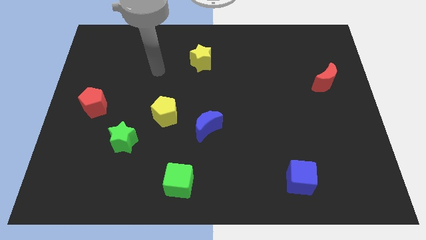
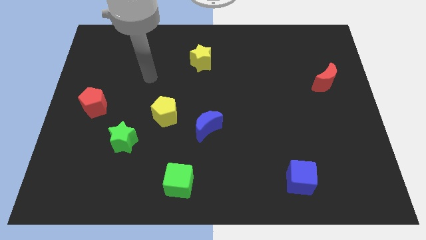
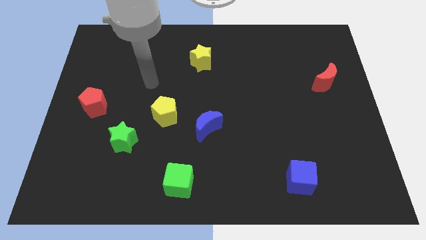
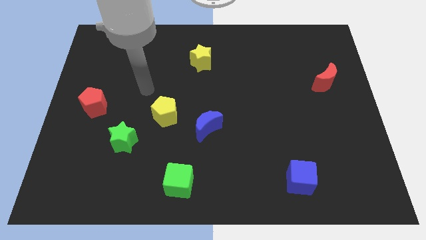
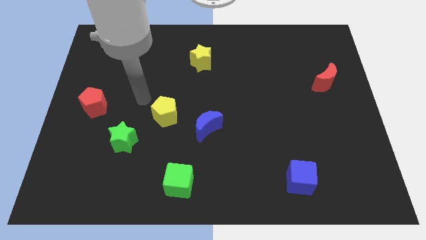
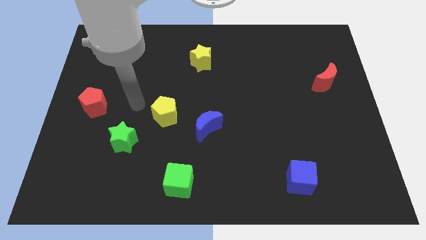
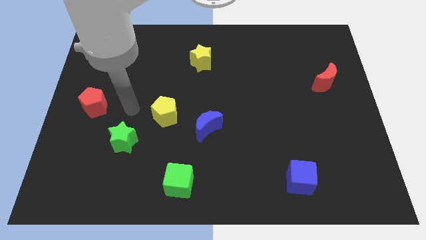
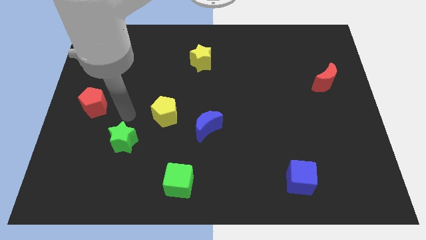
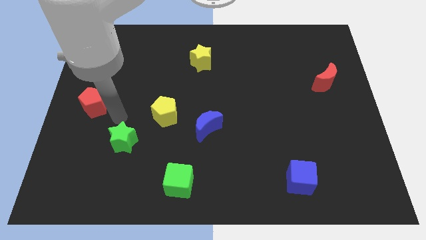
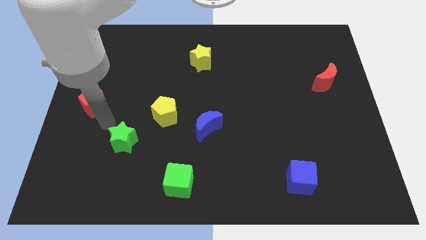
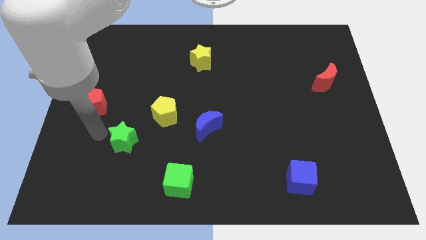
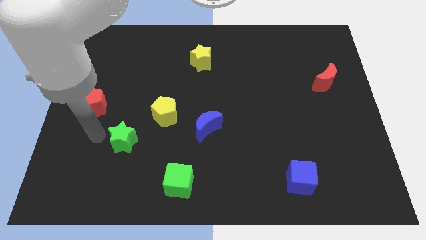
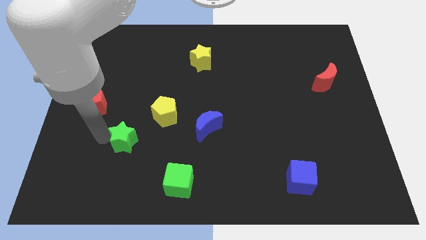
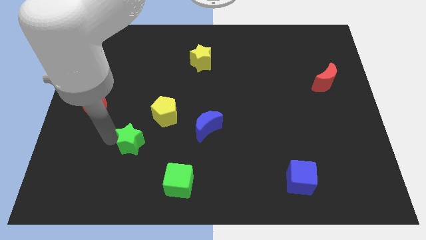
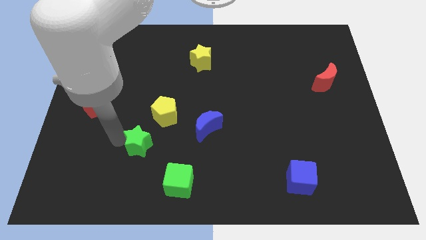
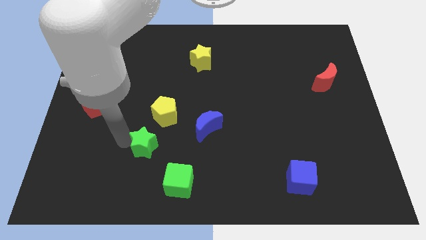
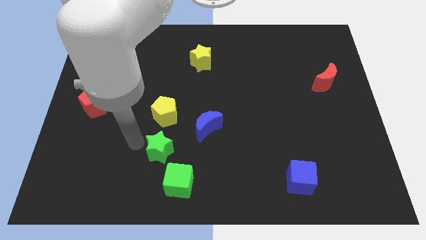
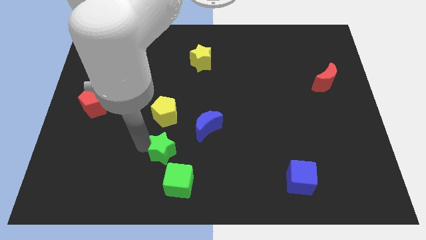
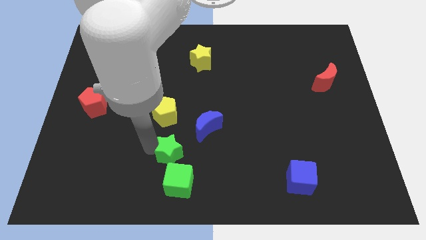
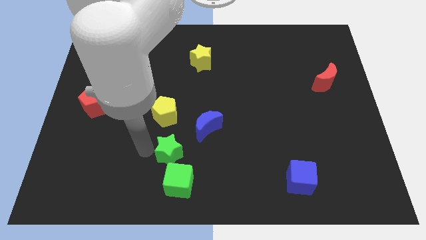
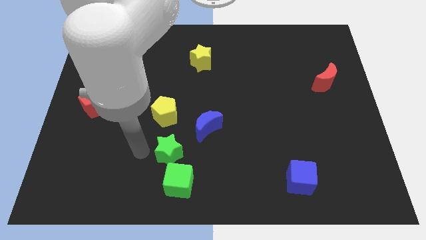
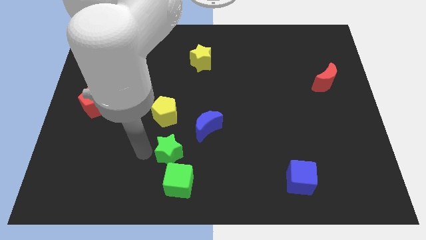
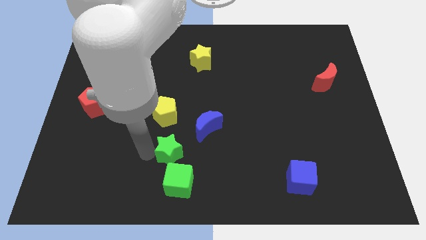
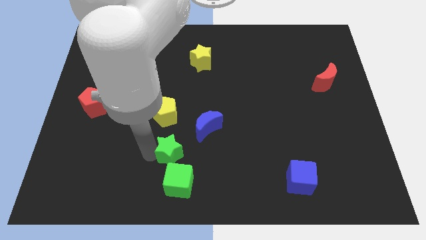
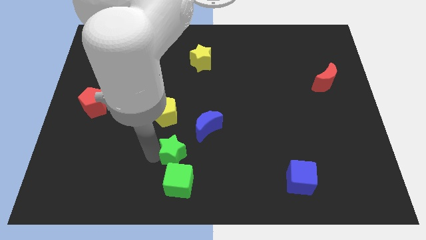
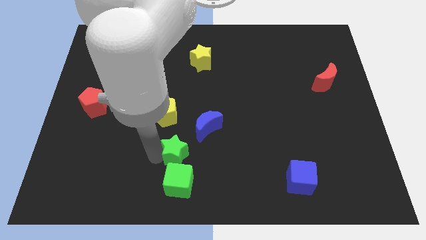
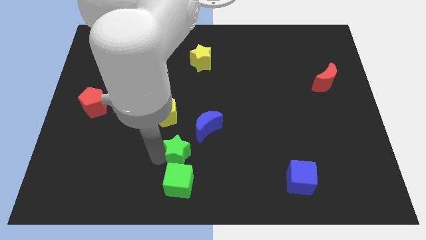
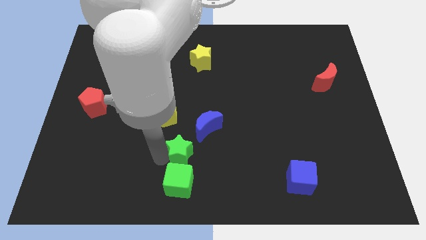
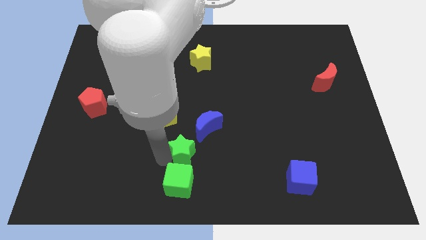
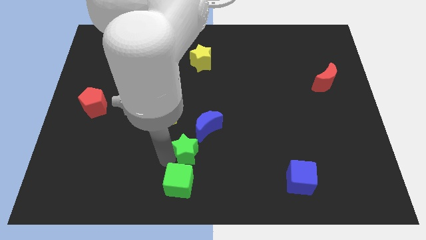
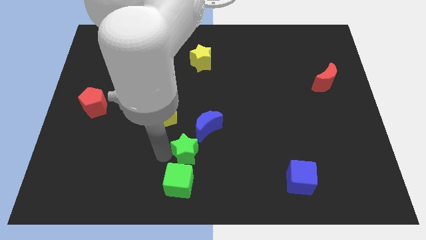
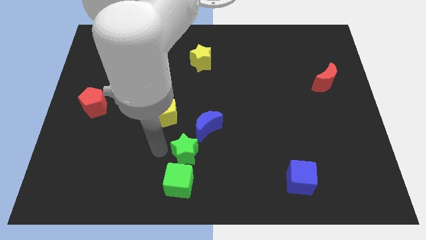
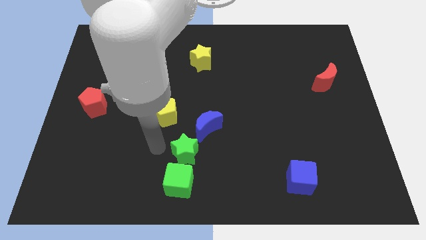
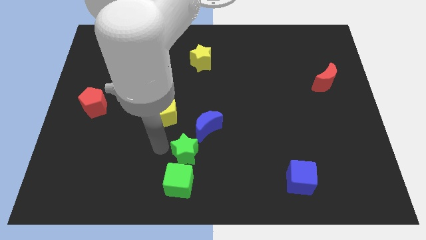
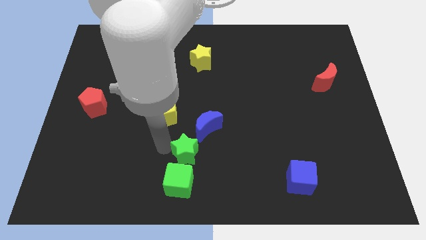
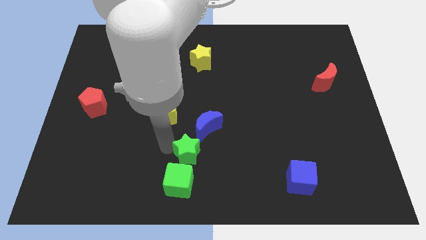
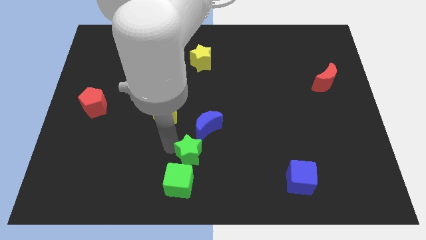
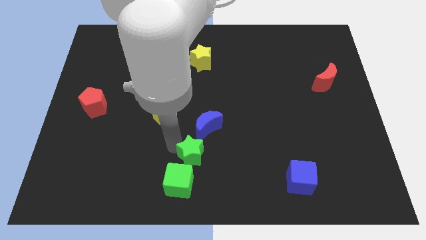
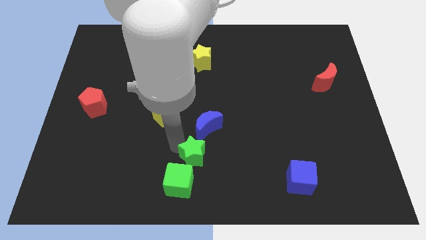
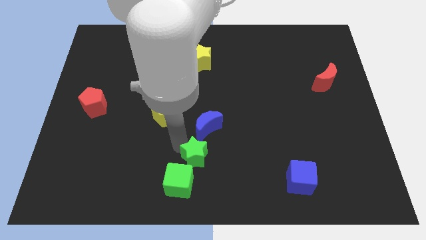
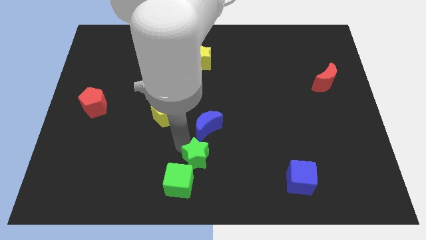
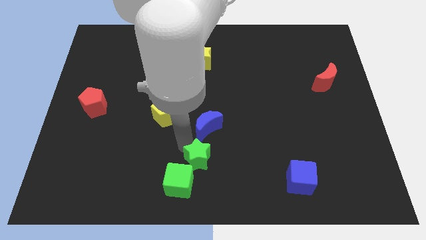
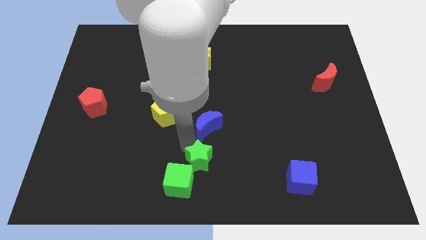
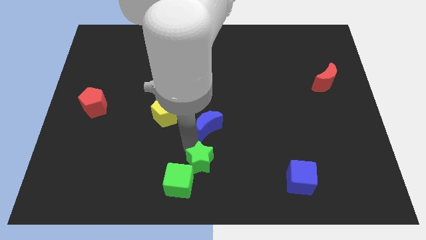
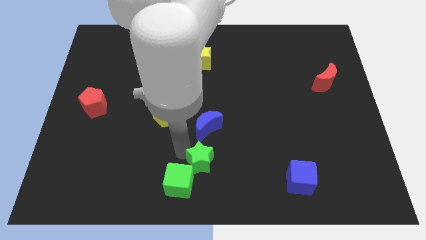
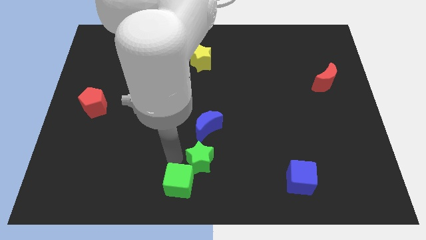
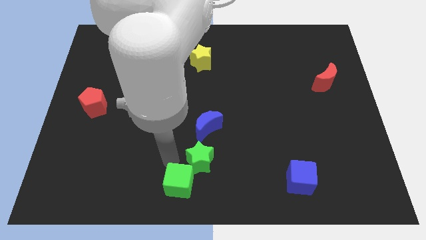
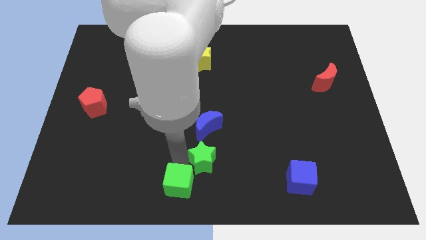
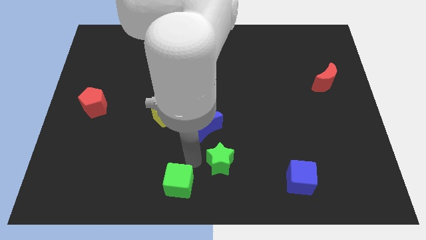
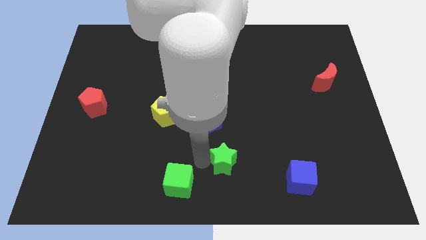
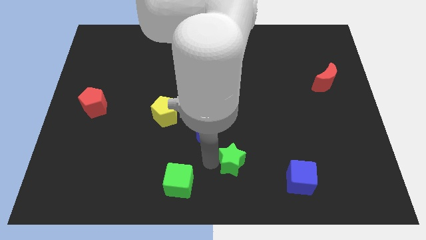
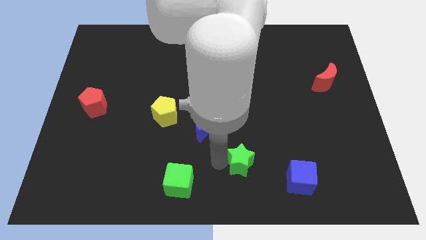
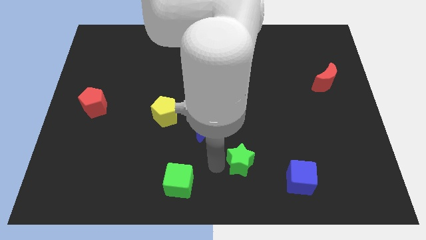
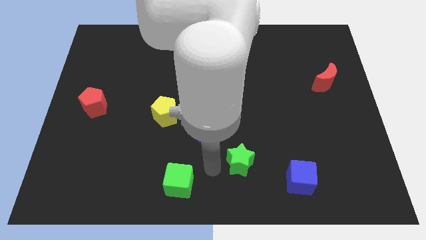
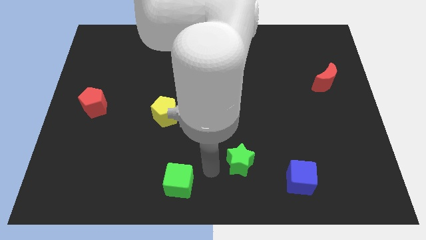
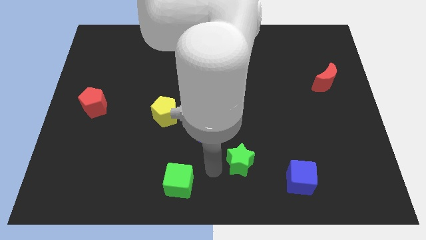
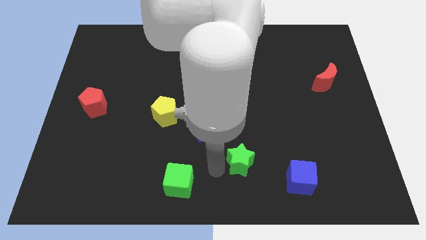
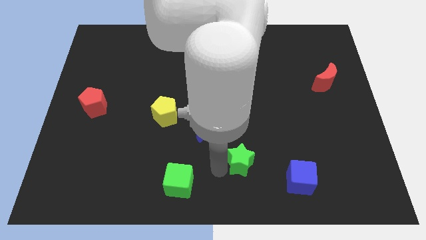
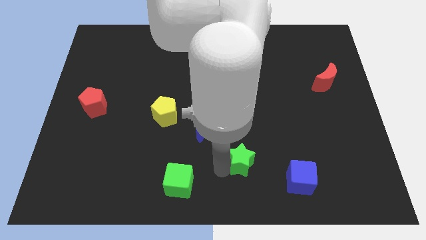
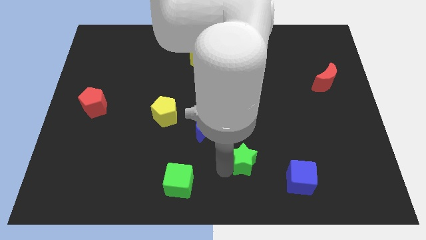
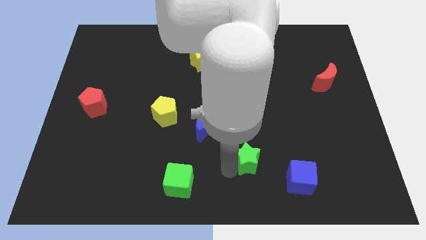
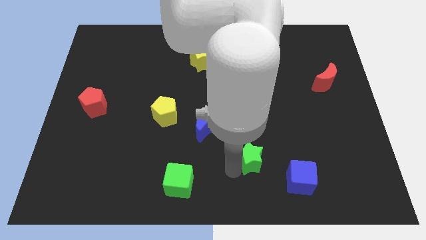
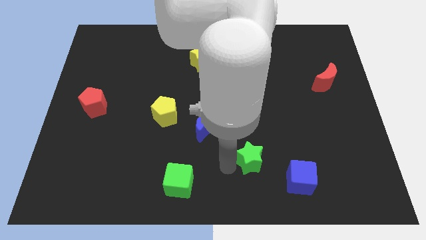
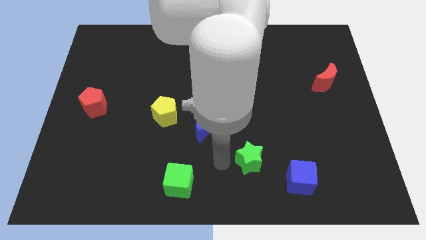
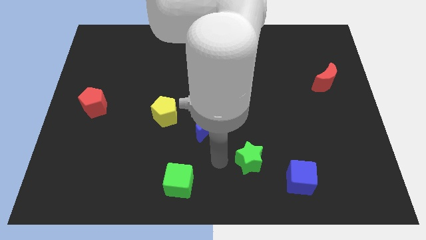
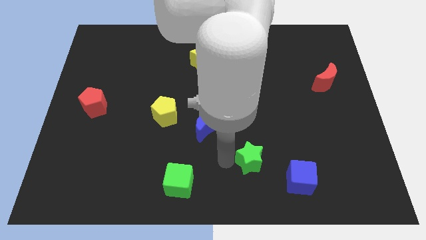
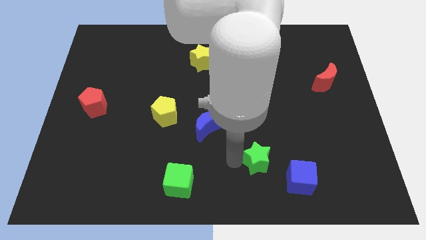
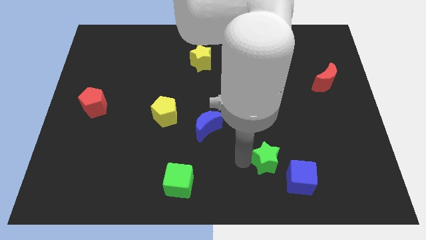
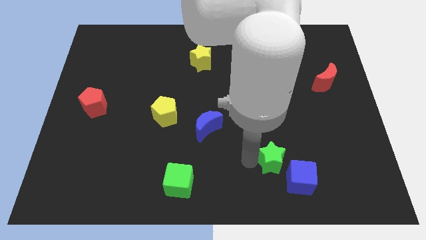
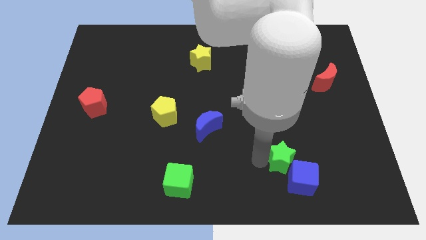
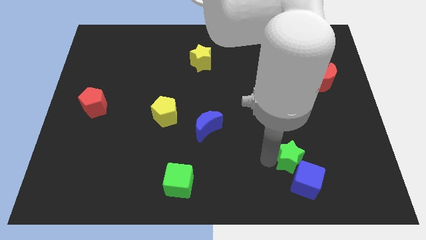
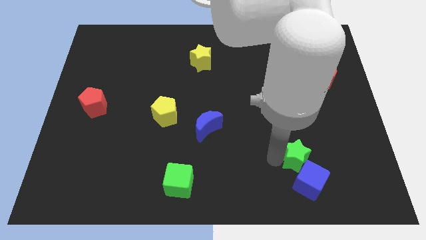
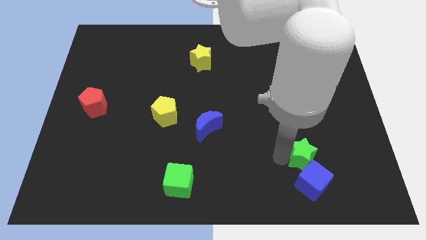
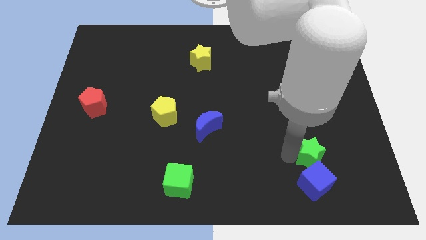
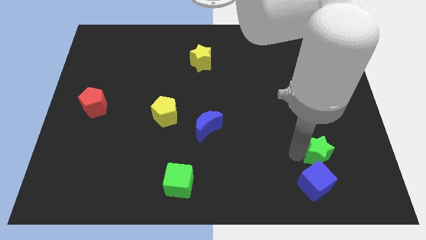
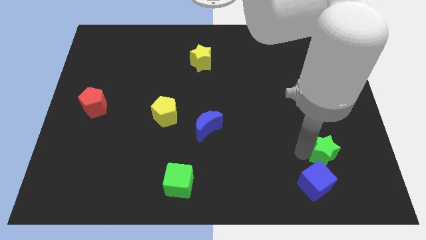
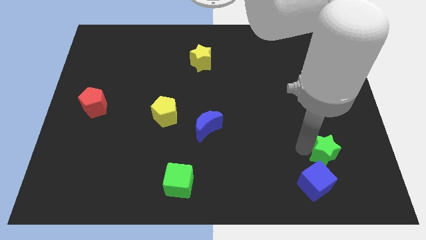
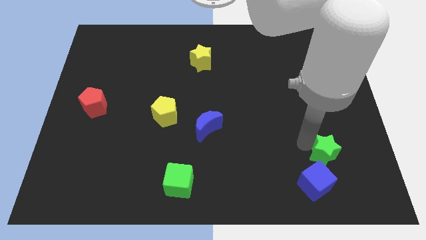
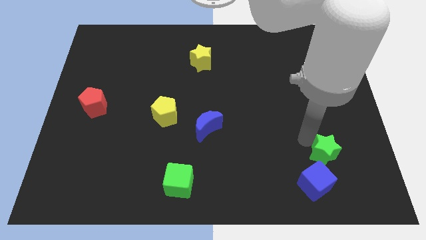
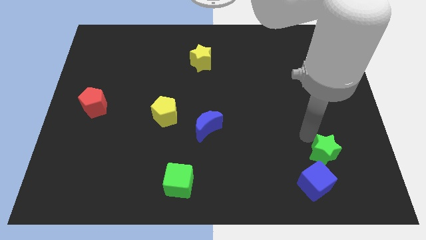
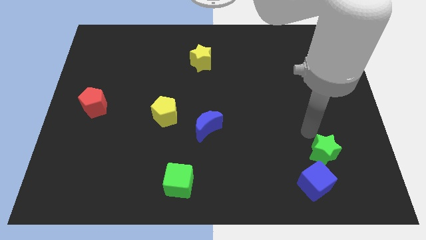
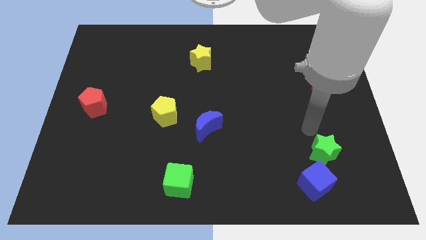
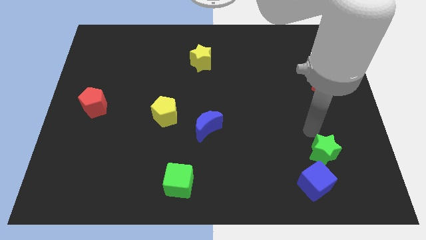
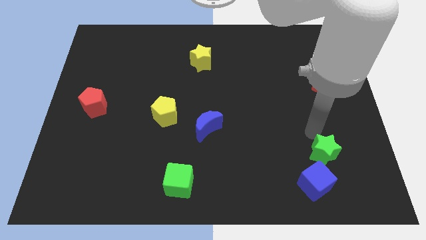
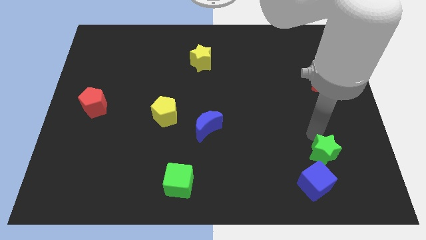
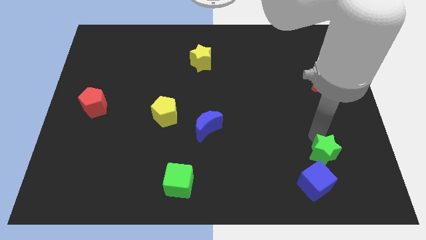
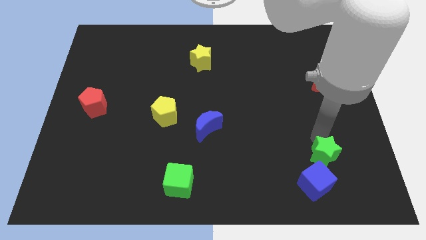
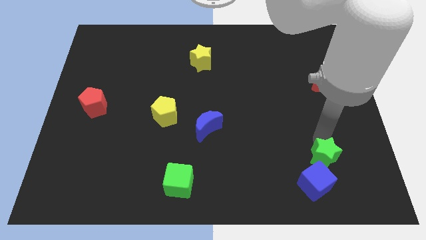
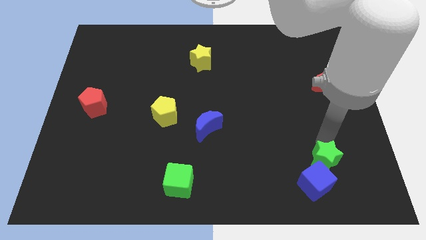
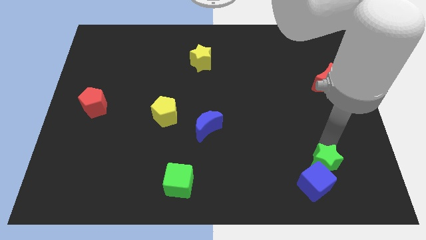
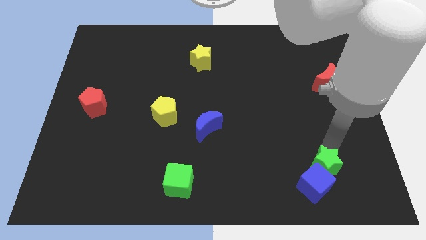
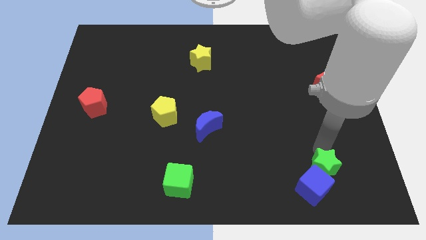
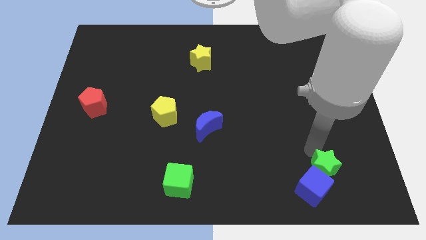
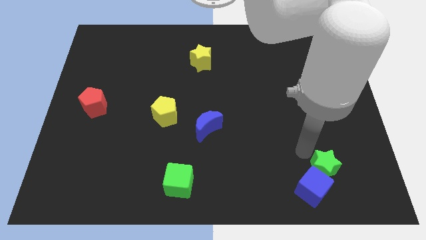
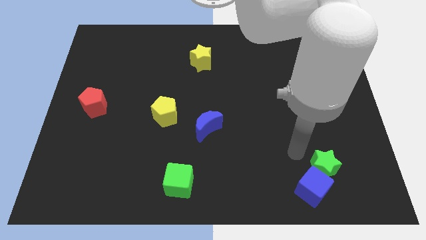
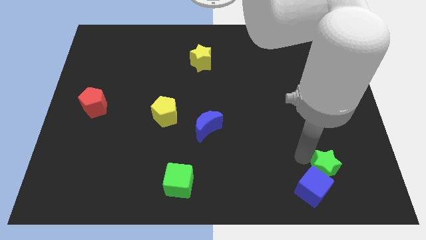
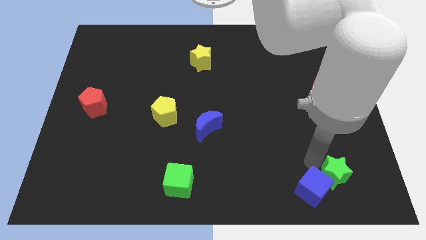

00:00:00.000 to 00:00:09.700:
put the green star just right of the blue cube
